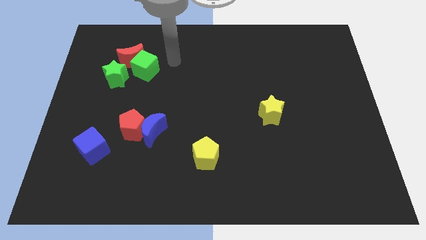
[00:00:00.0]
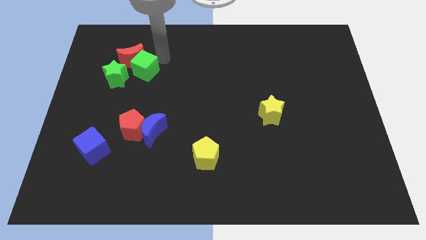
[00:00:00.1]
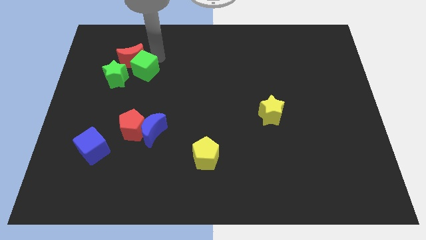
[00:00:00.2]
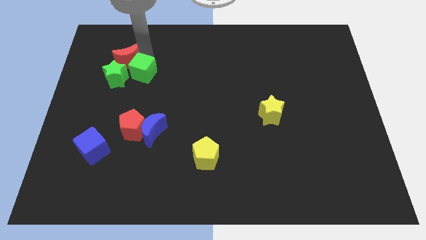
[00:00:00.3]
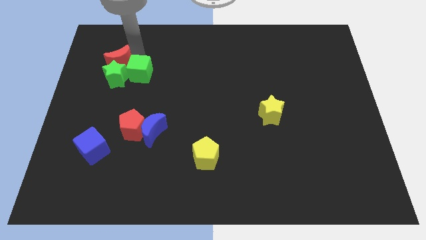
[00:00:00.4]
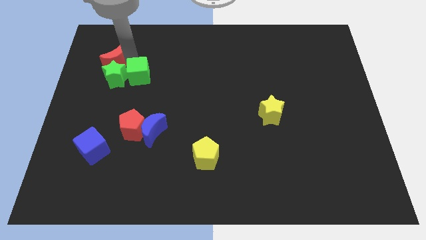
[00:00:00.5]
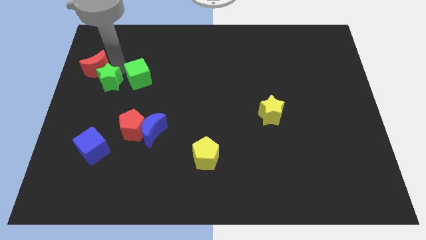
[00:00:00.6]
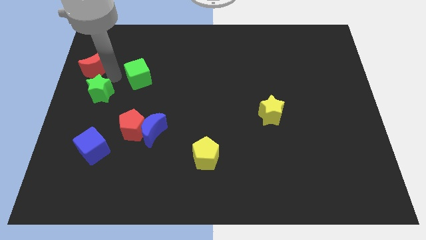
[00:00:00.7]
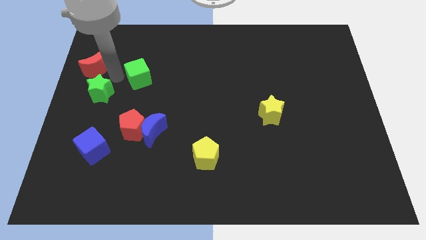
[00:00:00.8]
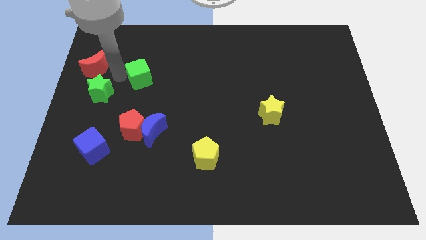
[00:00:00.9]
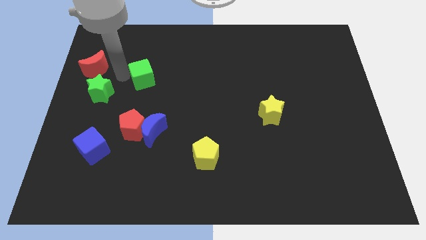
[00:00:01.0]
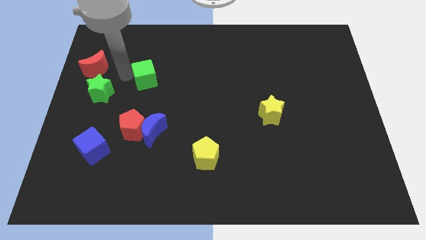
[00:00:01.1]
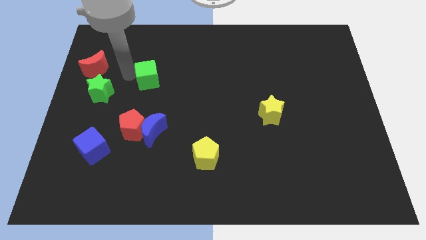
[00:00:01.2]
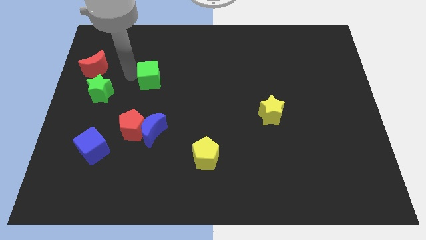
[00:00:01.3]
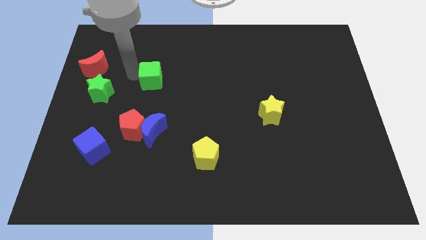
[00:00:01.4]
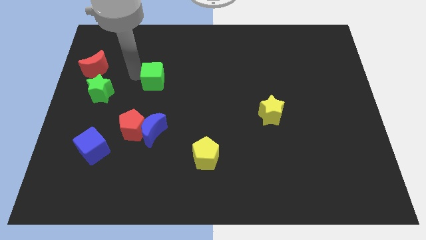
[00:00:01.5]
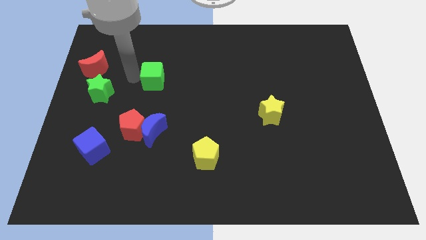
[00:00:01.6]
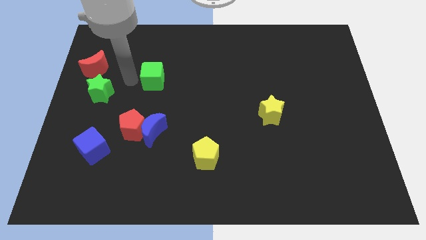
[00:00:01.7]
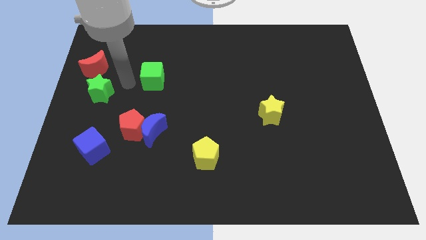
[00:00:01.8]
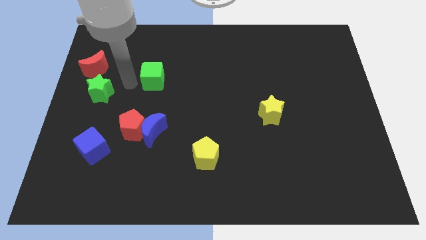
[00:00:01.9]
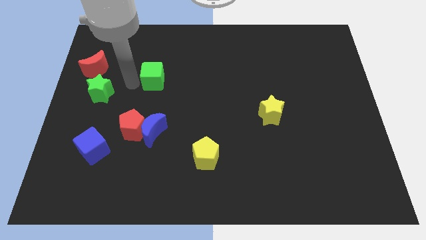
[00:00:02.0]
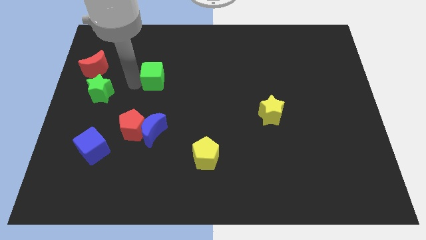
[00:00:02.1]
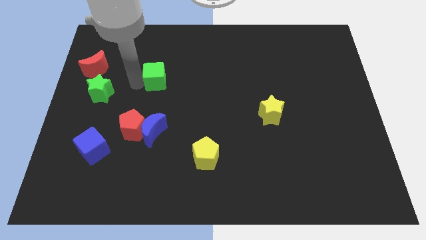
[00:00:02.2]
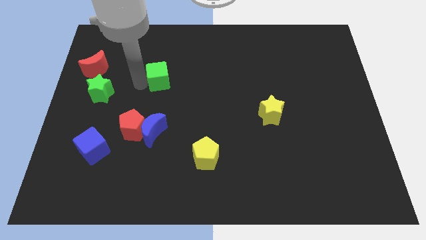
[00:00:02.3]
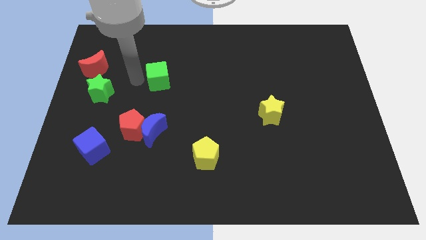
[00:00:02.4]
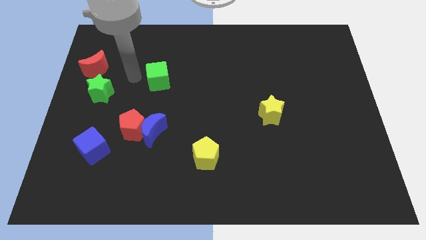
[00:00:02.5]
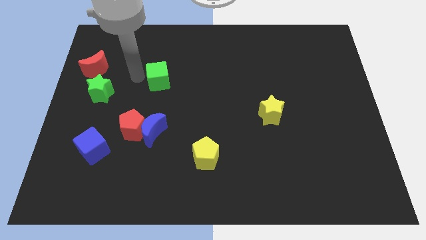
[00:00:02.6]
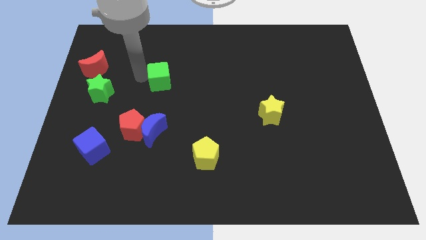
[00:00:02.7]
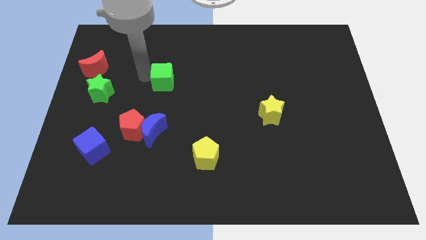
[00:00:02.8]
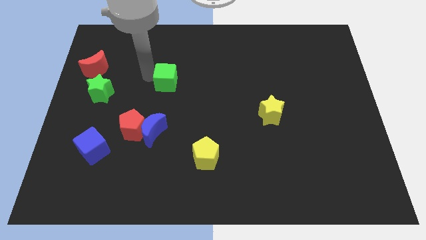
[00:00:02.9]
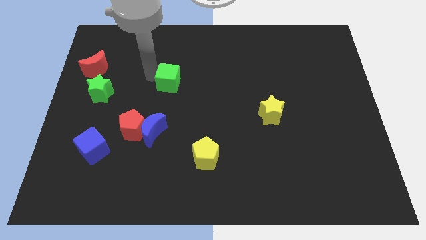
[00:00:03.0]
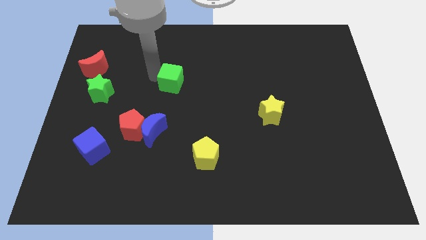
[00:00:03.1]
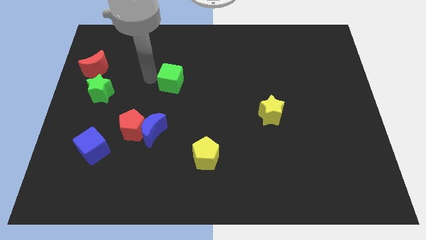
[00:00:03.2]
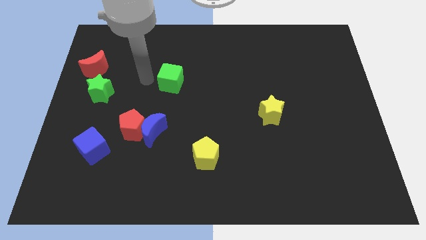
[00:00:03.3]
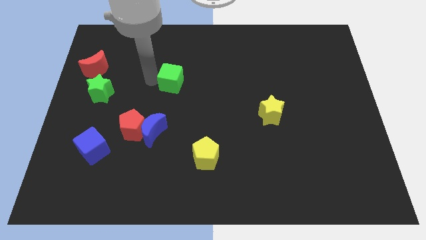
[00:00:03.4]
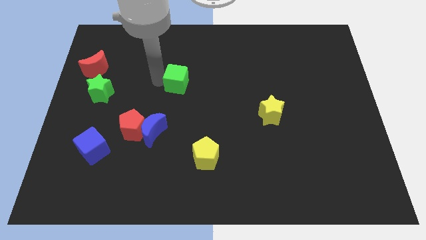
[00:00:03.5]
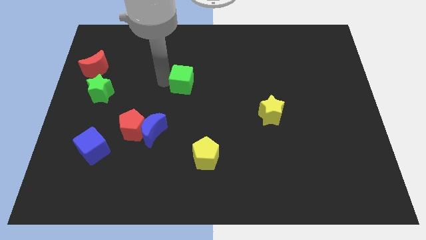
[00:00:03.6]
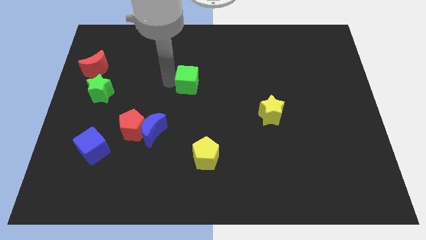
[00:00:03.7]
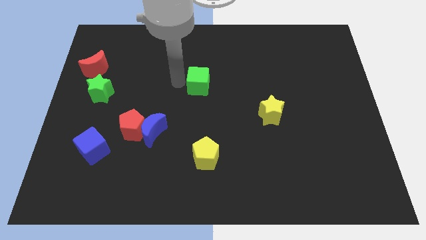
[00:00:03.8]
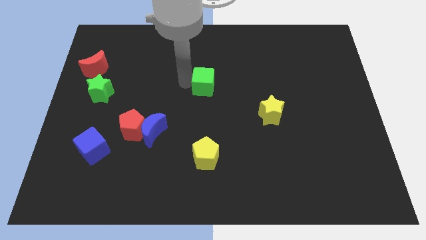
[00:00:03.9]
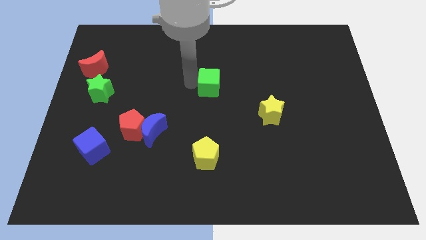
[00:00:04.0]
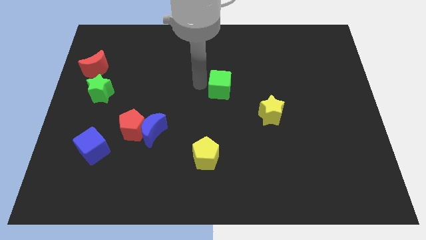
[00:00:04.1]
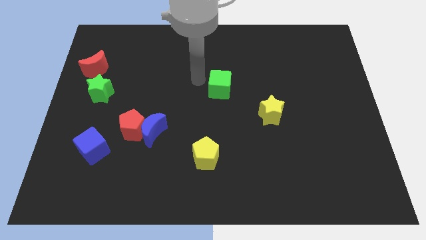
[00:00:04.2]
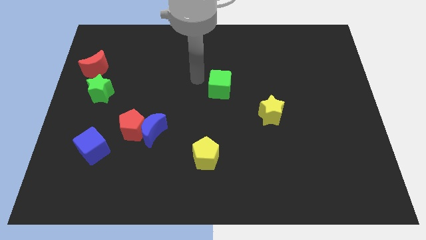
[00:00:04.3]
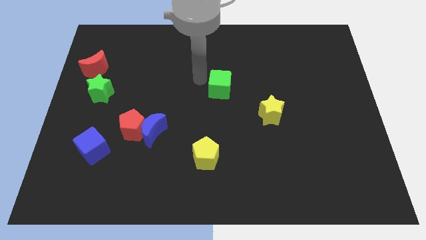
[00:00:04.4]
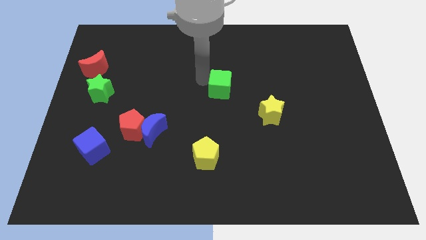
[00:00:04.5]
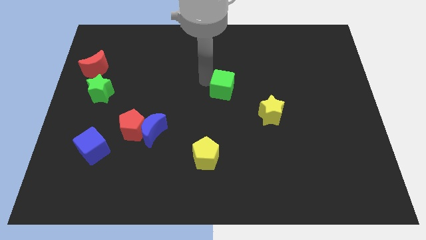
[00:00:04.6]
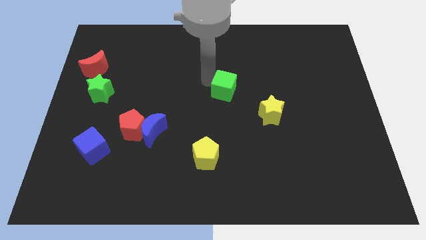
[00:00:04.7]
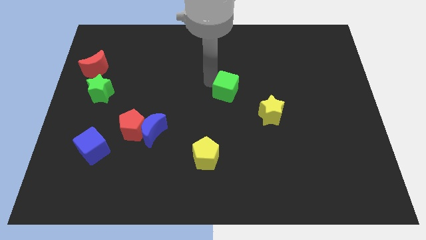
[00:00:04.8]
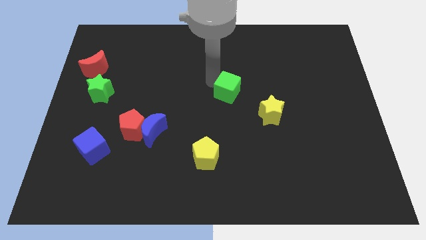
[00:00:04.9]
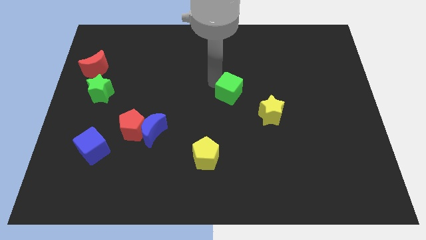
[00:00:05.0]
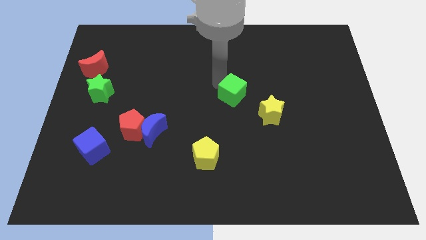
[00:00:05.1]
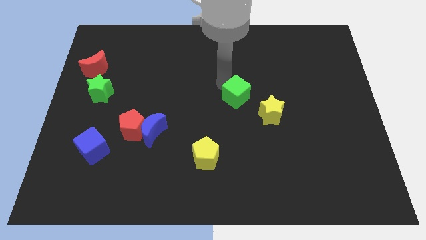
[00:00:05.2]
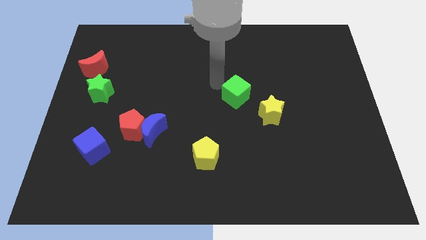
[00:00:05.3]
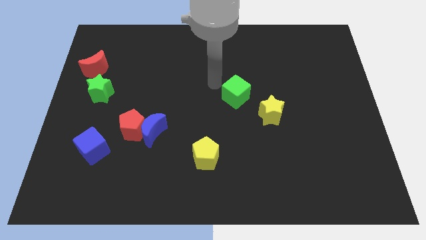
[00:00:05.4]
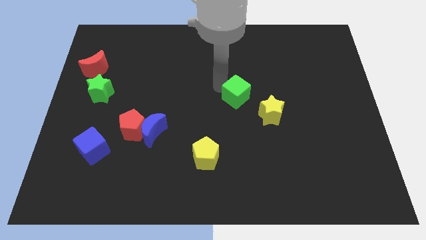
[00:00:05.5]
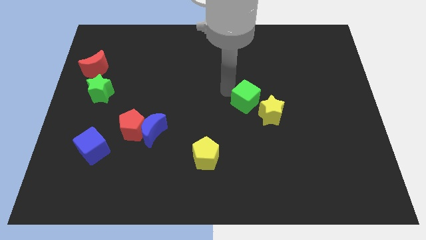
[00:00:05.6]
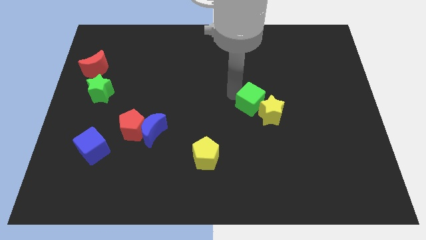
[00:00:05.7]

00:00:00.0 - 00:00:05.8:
move the green cube next to the yellow star

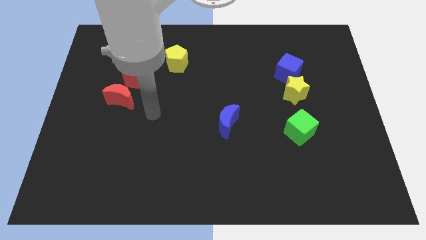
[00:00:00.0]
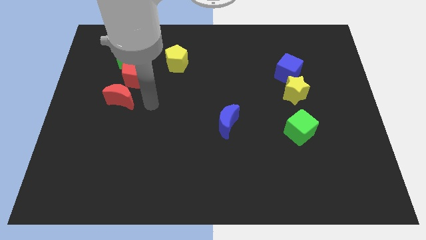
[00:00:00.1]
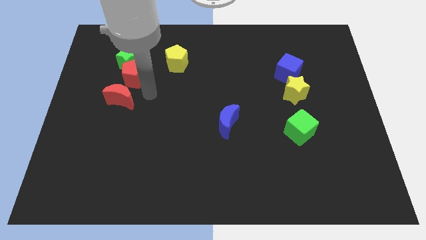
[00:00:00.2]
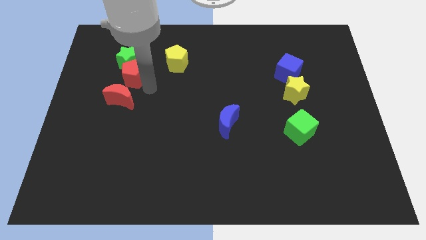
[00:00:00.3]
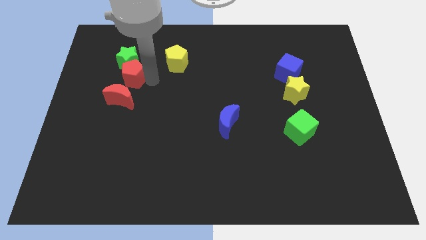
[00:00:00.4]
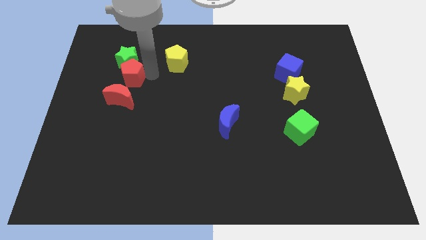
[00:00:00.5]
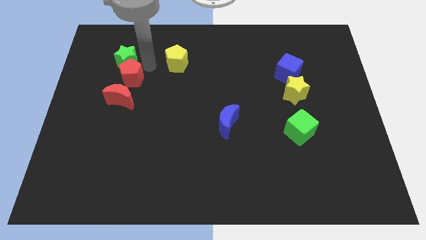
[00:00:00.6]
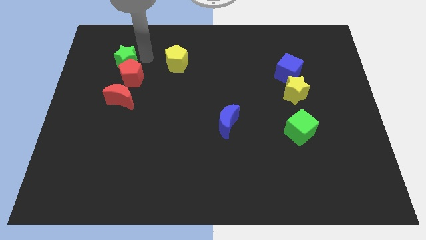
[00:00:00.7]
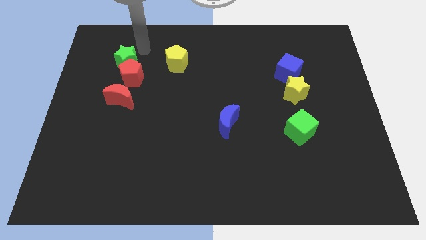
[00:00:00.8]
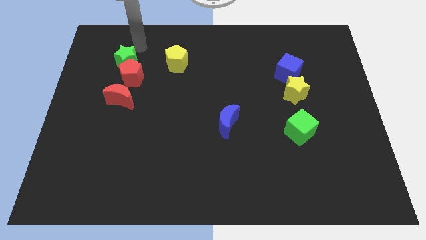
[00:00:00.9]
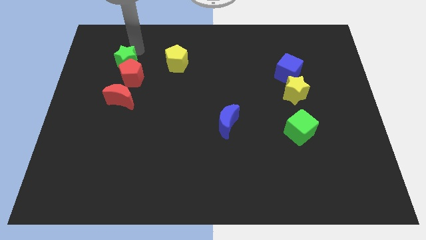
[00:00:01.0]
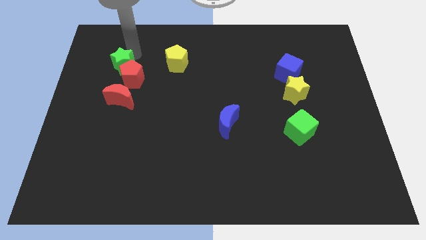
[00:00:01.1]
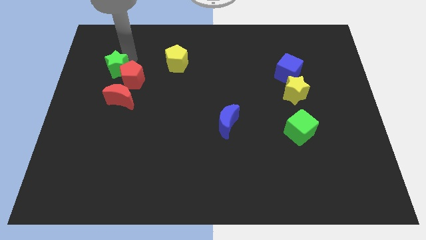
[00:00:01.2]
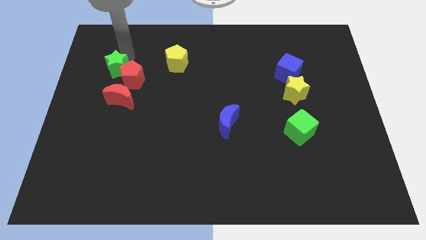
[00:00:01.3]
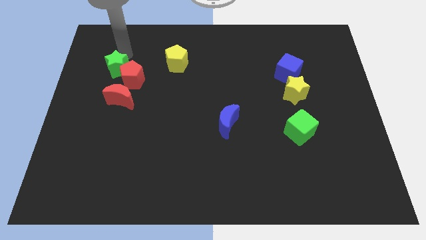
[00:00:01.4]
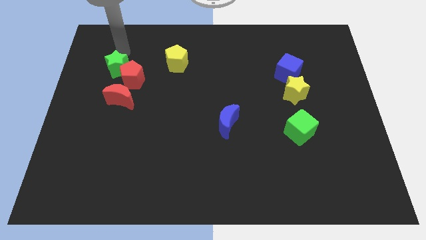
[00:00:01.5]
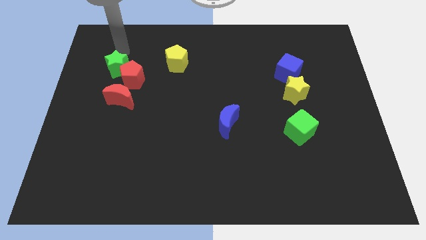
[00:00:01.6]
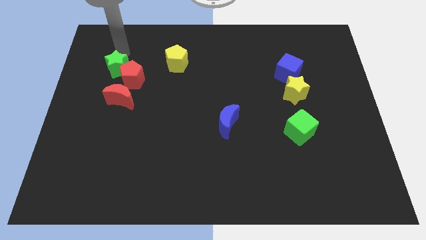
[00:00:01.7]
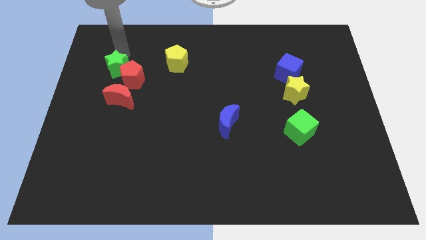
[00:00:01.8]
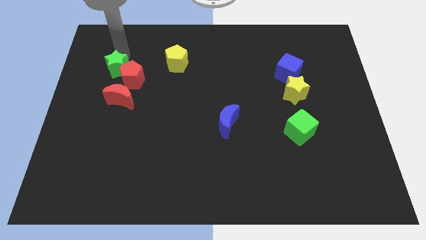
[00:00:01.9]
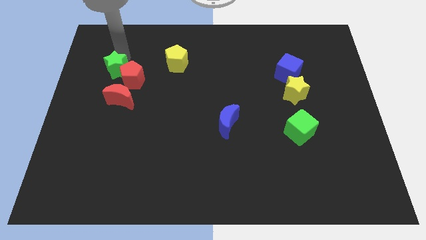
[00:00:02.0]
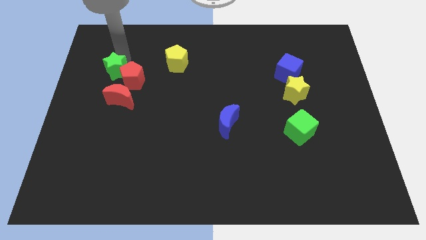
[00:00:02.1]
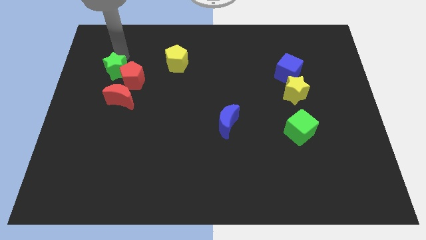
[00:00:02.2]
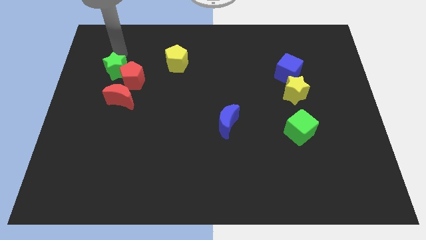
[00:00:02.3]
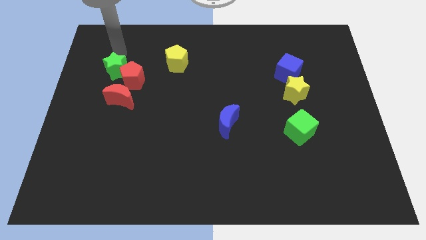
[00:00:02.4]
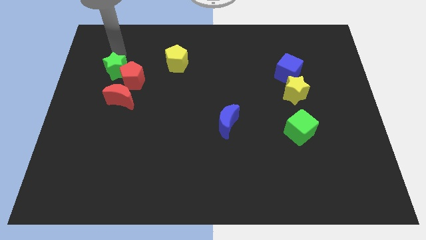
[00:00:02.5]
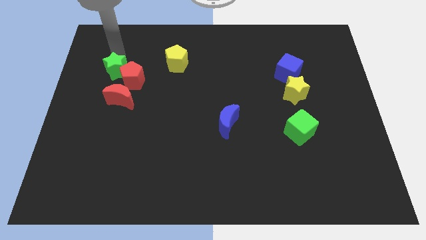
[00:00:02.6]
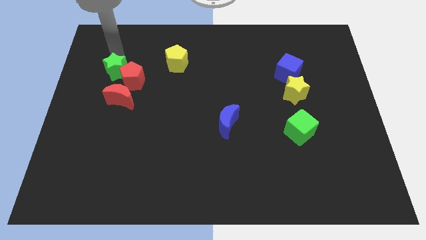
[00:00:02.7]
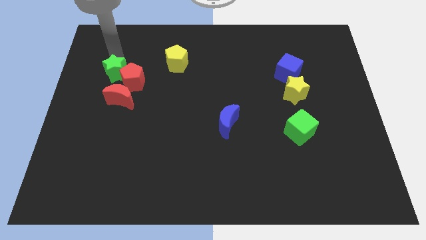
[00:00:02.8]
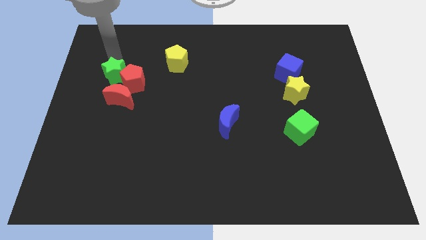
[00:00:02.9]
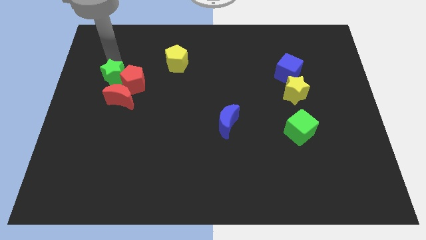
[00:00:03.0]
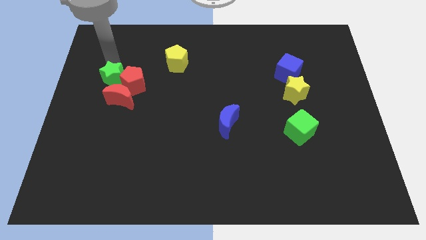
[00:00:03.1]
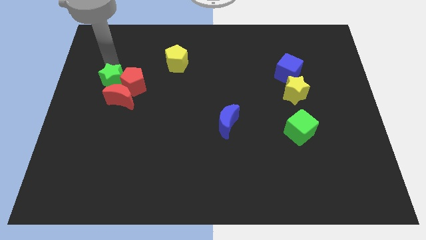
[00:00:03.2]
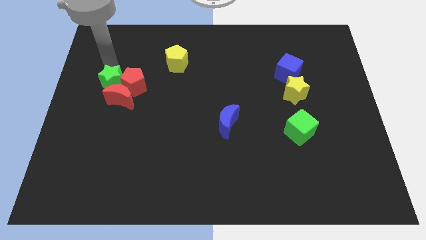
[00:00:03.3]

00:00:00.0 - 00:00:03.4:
push the green star close to the red moon
